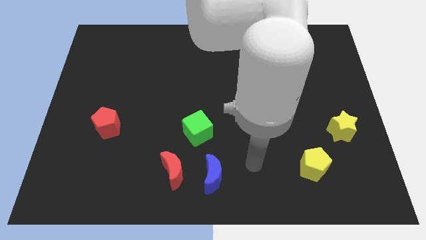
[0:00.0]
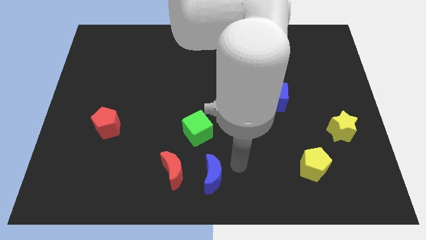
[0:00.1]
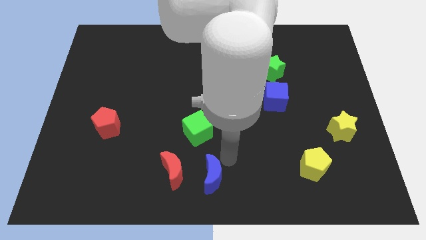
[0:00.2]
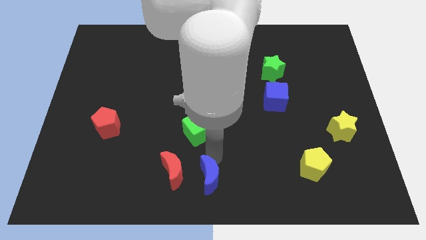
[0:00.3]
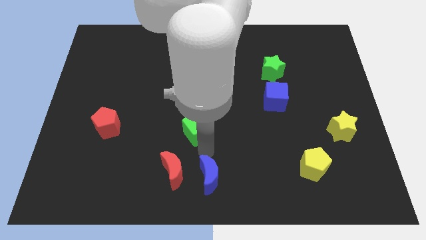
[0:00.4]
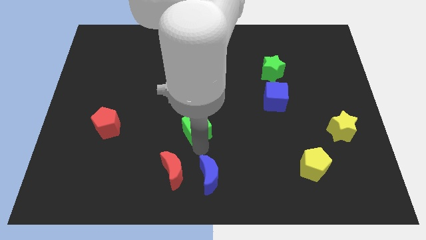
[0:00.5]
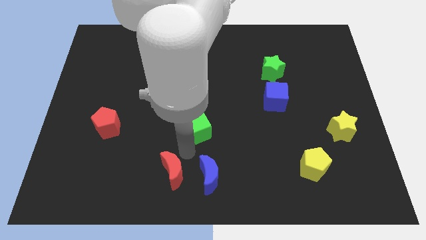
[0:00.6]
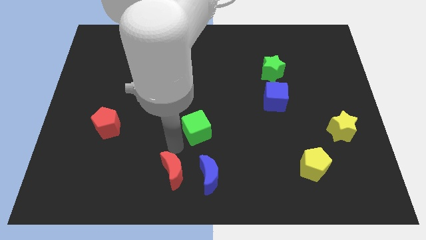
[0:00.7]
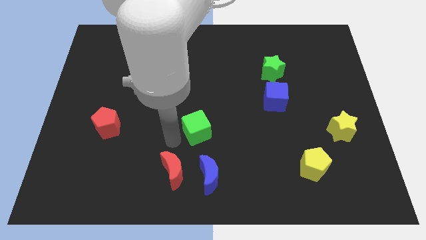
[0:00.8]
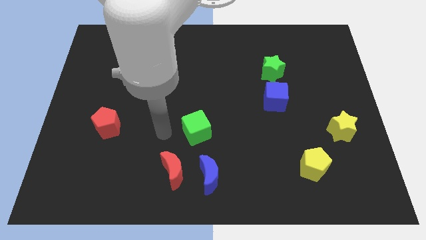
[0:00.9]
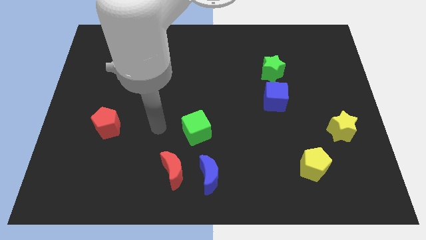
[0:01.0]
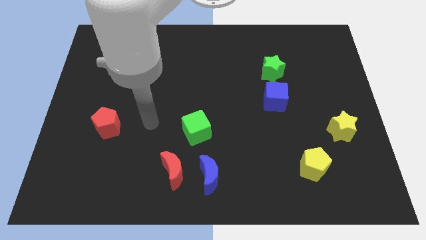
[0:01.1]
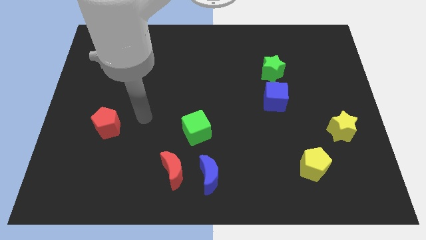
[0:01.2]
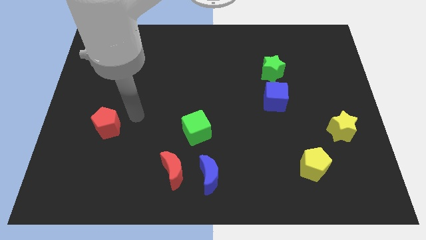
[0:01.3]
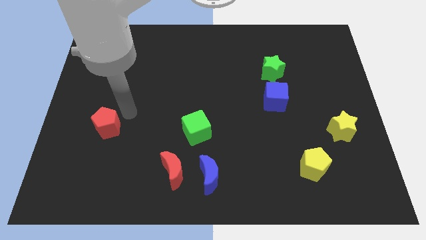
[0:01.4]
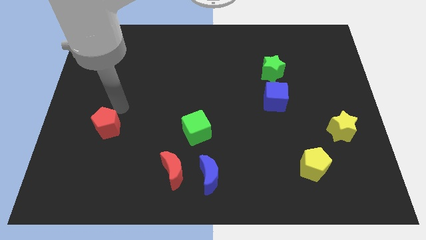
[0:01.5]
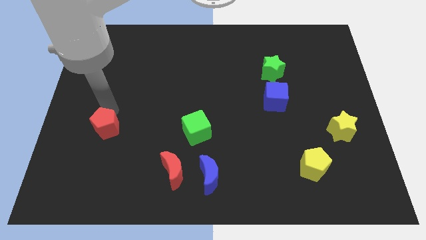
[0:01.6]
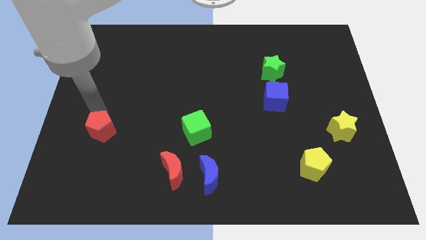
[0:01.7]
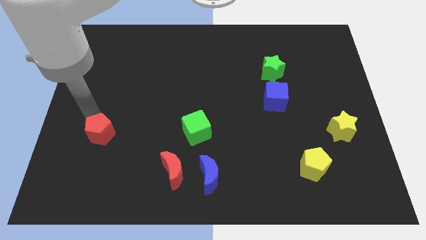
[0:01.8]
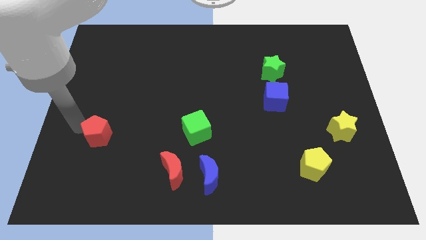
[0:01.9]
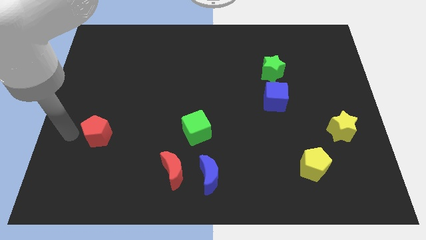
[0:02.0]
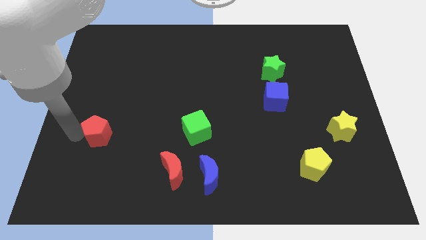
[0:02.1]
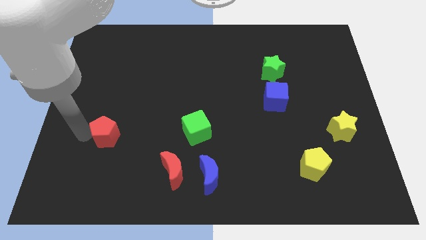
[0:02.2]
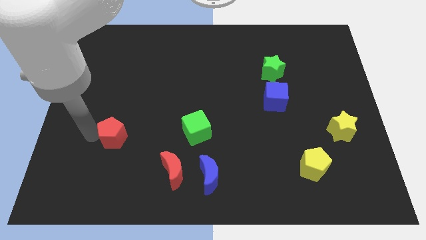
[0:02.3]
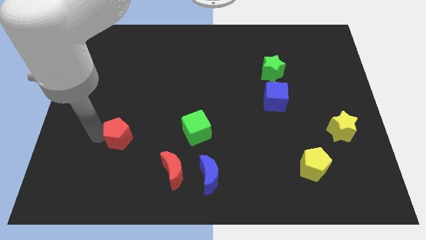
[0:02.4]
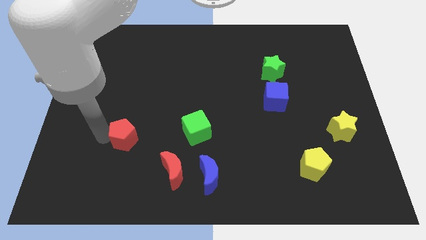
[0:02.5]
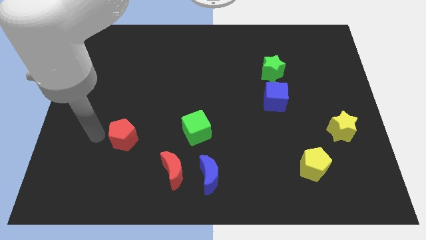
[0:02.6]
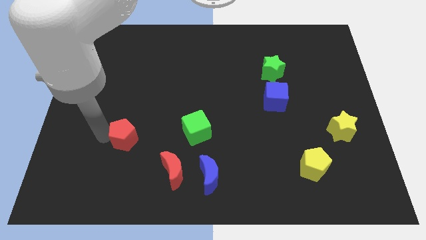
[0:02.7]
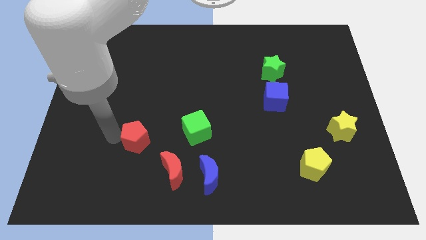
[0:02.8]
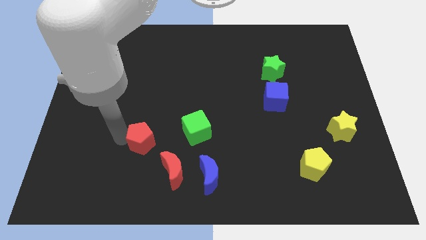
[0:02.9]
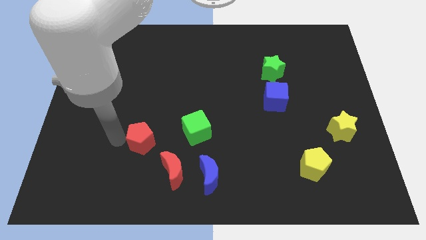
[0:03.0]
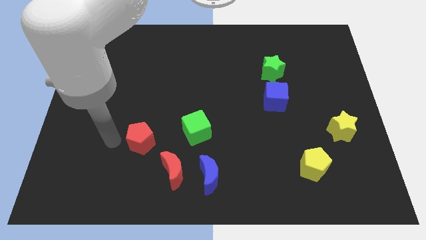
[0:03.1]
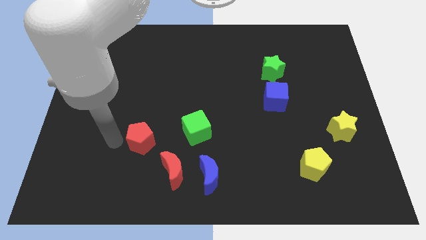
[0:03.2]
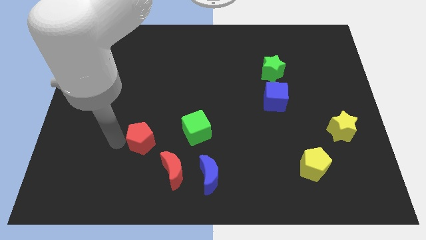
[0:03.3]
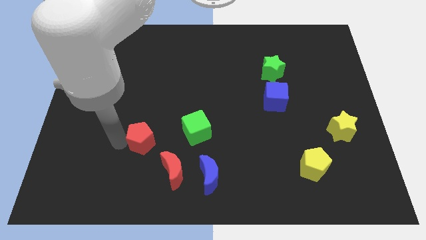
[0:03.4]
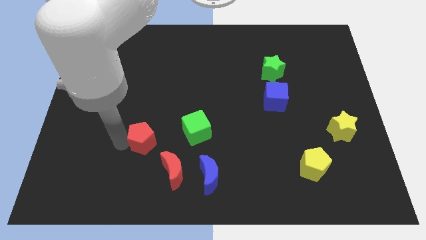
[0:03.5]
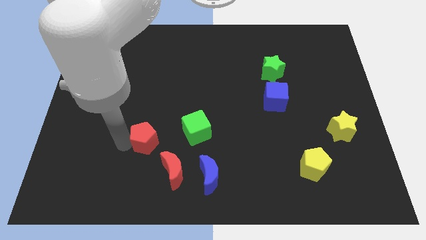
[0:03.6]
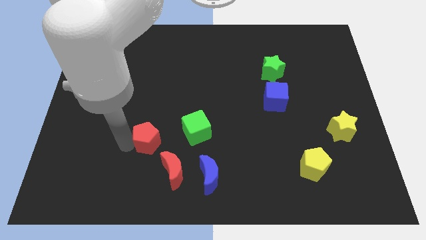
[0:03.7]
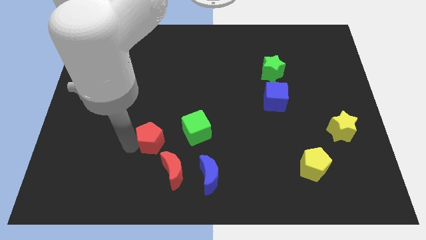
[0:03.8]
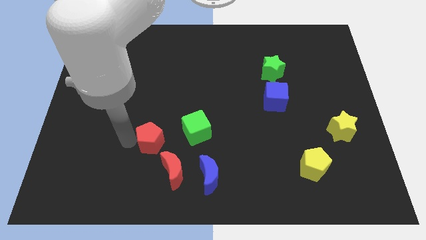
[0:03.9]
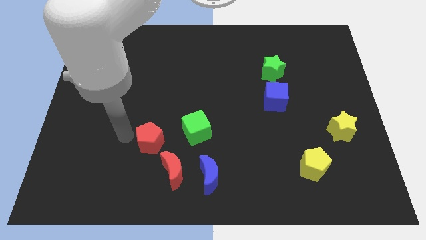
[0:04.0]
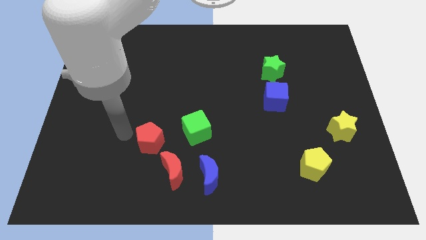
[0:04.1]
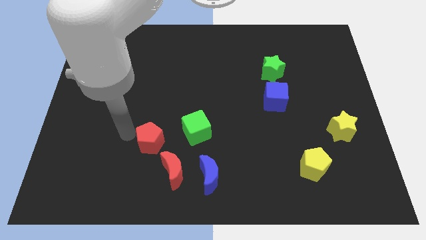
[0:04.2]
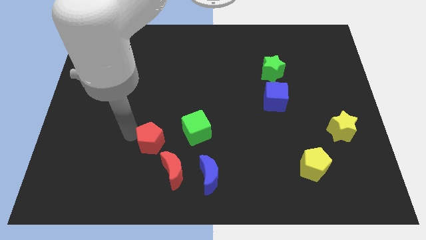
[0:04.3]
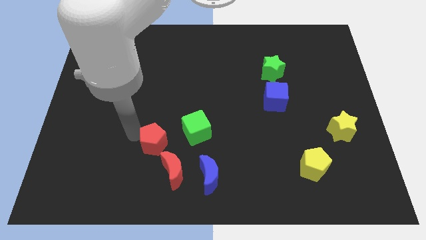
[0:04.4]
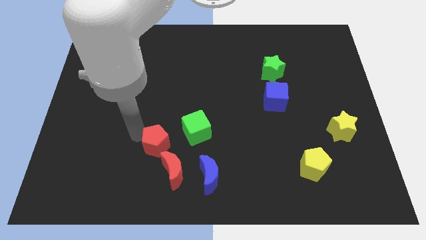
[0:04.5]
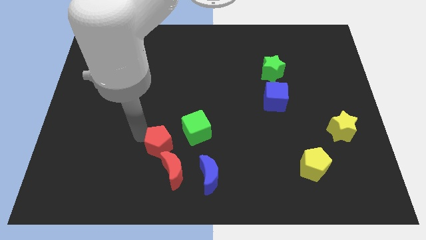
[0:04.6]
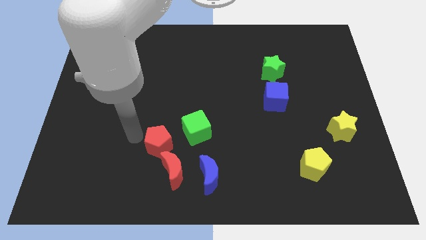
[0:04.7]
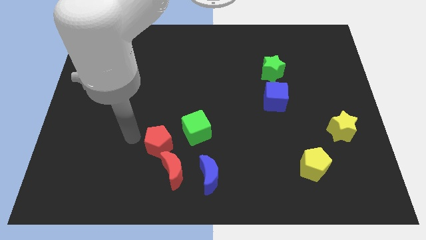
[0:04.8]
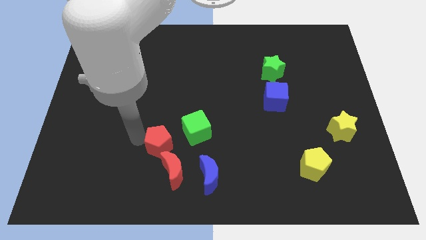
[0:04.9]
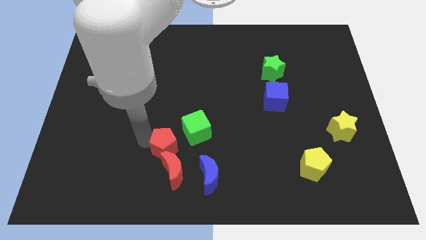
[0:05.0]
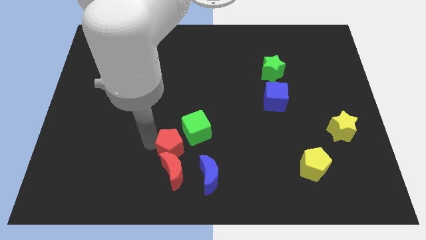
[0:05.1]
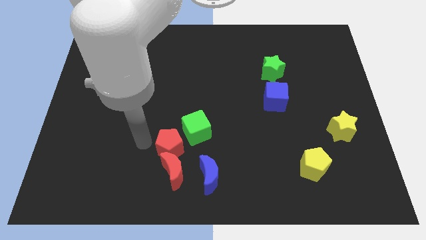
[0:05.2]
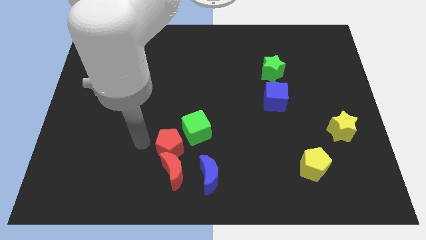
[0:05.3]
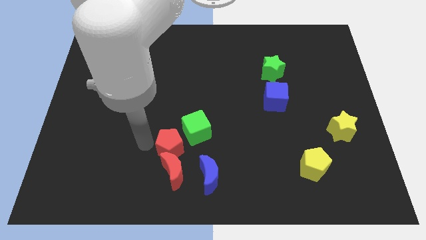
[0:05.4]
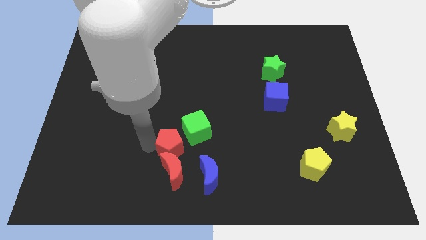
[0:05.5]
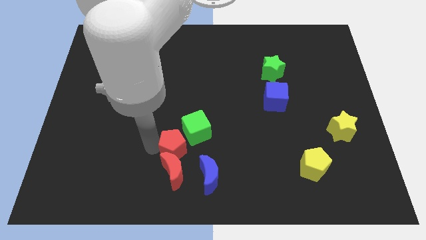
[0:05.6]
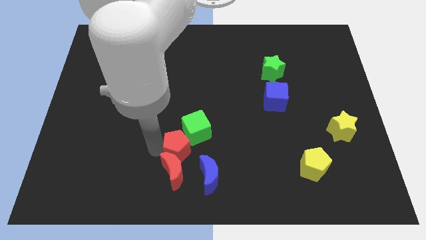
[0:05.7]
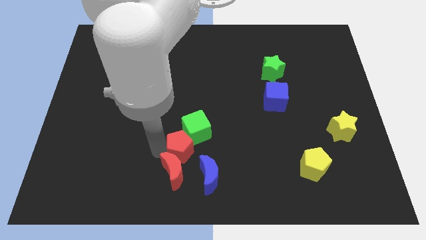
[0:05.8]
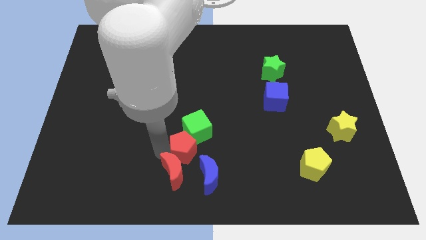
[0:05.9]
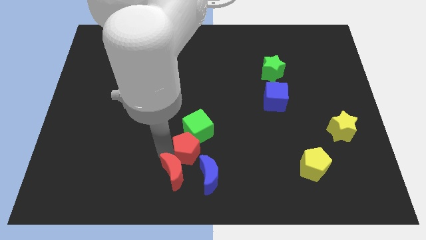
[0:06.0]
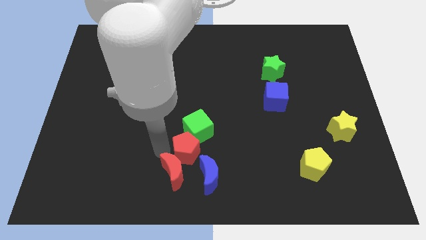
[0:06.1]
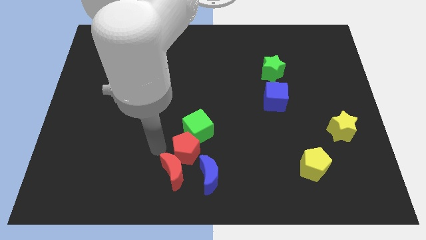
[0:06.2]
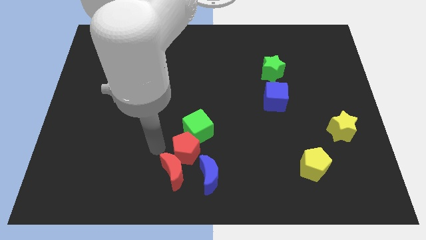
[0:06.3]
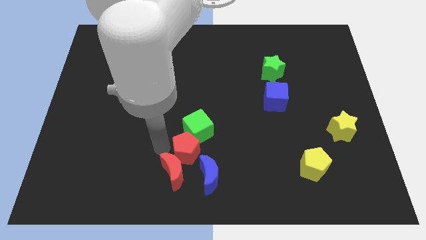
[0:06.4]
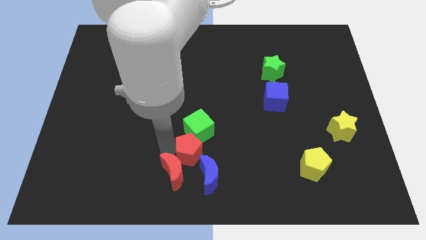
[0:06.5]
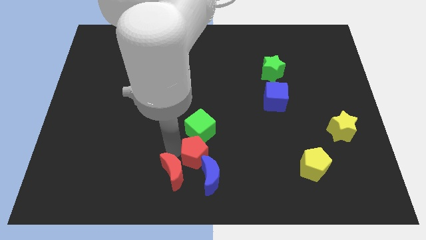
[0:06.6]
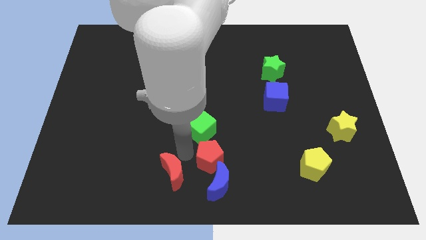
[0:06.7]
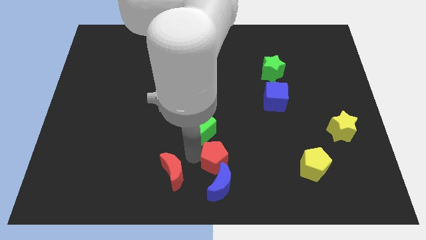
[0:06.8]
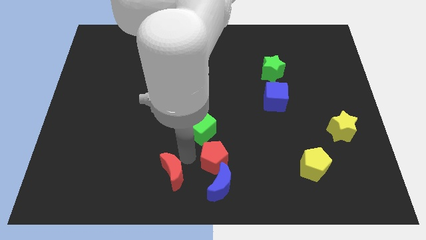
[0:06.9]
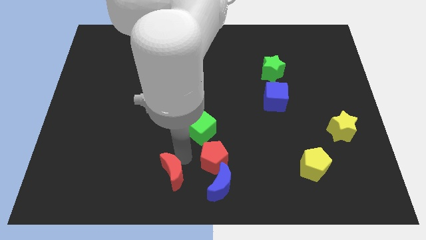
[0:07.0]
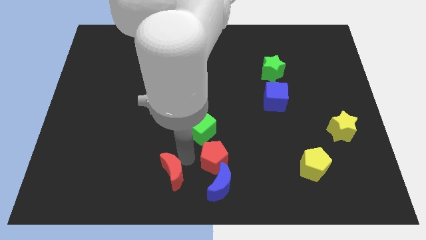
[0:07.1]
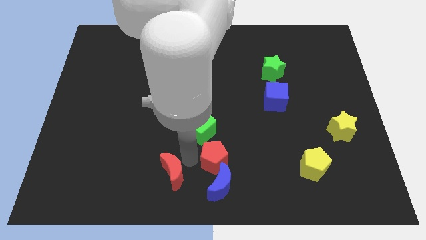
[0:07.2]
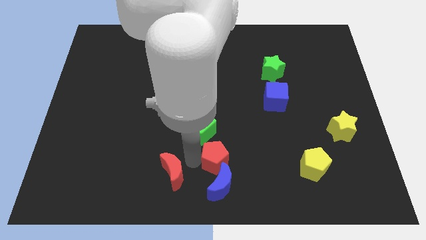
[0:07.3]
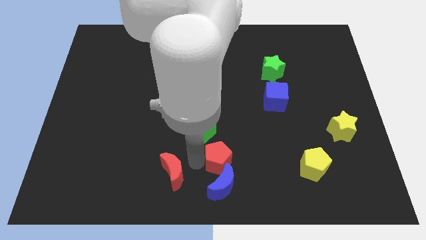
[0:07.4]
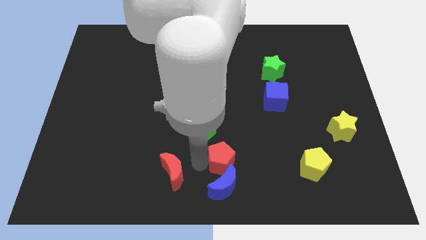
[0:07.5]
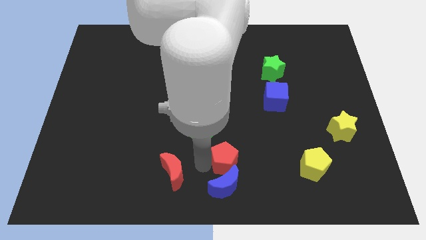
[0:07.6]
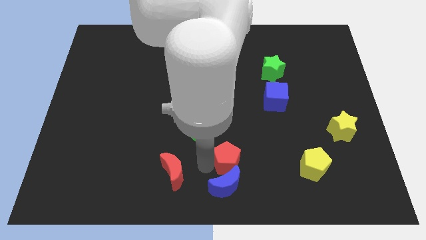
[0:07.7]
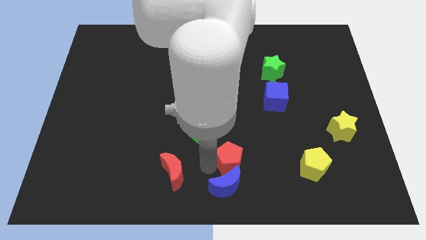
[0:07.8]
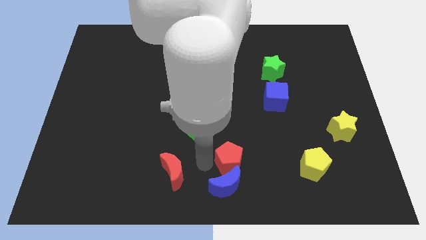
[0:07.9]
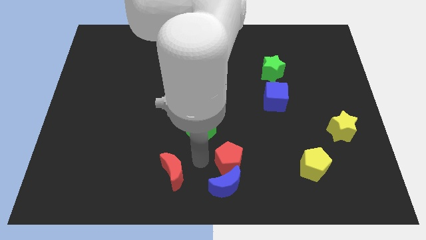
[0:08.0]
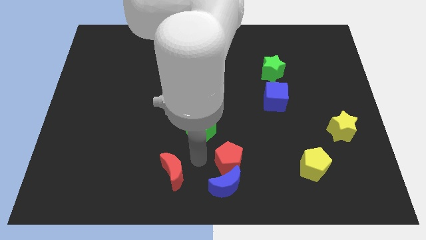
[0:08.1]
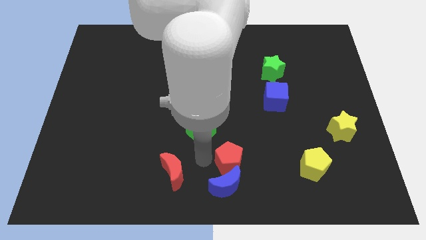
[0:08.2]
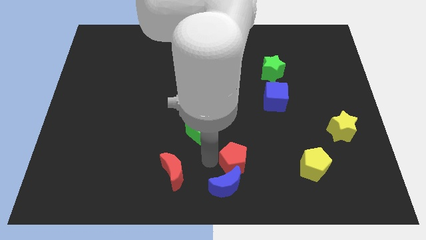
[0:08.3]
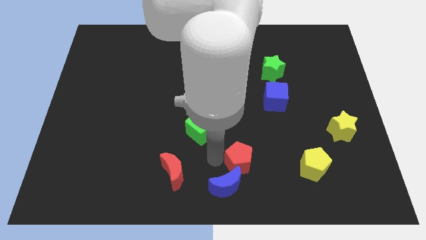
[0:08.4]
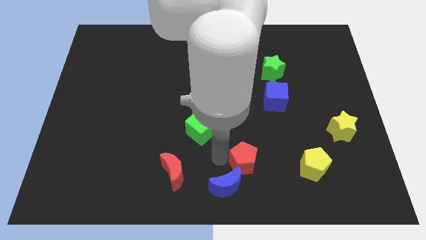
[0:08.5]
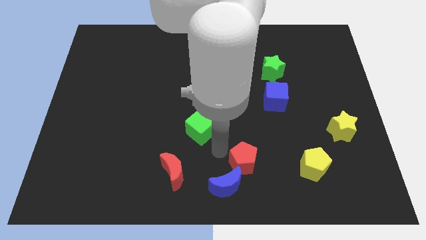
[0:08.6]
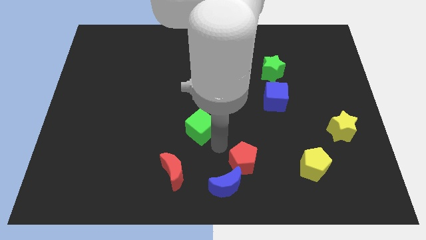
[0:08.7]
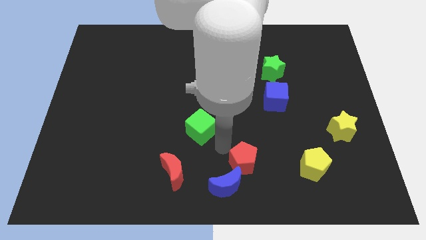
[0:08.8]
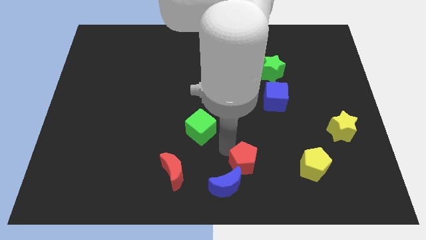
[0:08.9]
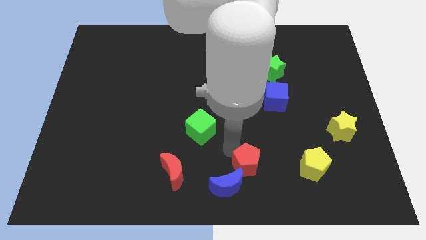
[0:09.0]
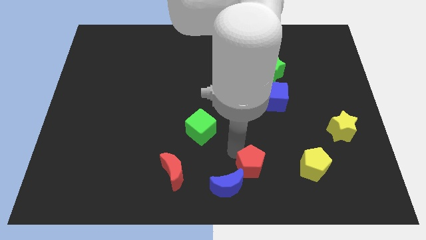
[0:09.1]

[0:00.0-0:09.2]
put the red pentagon just right of the blue moon
